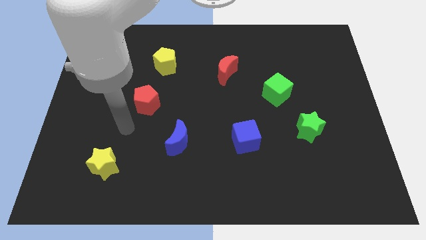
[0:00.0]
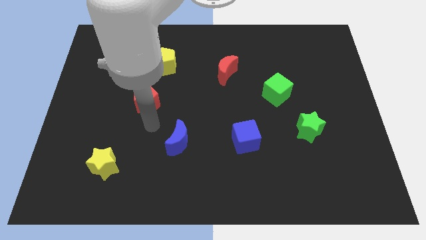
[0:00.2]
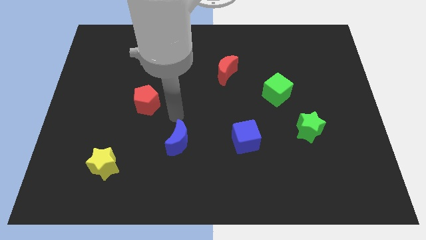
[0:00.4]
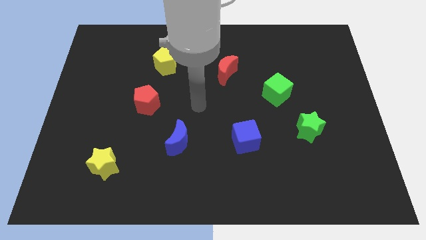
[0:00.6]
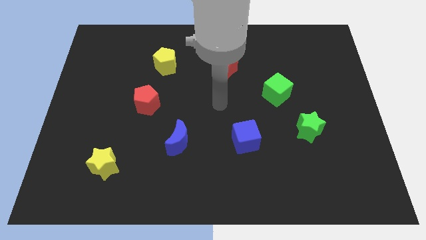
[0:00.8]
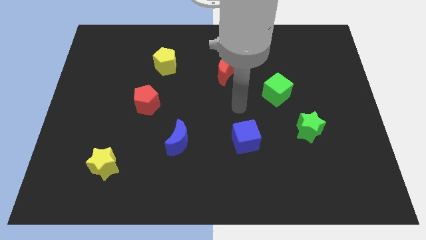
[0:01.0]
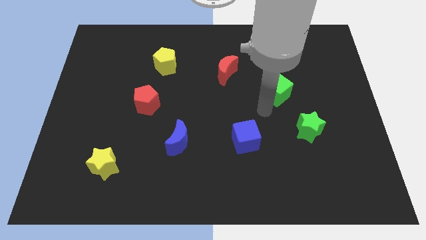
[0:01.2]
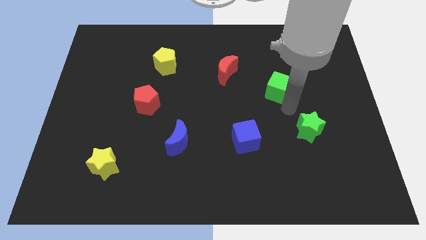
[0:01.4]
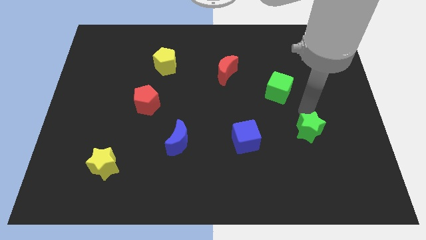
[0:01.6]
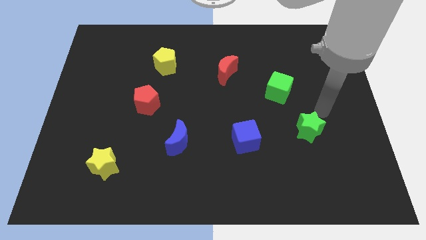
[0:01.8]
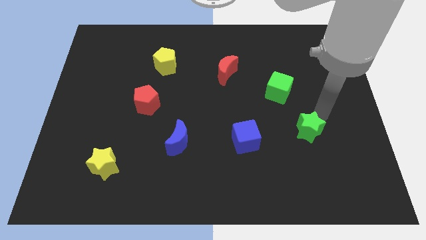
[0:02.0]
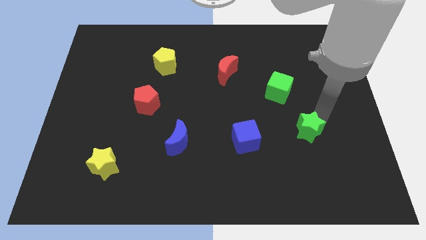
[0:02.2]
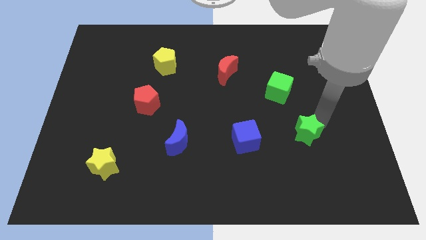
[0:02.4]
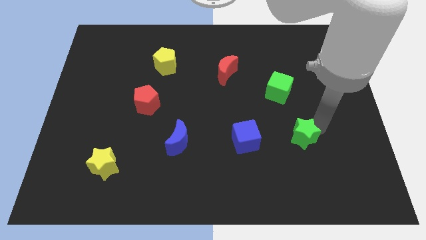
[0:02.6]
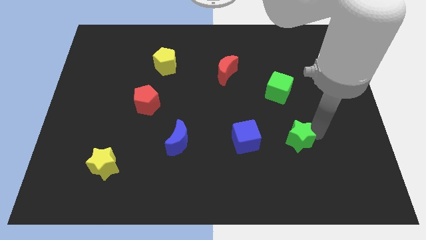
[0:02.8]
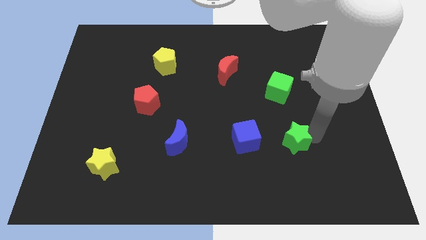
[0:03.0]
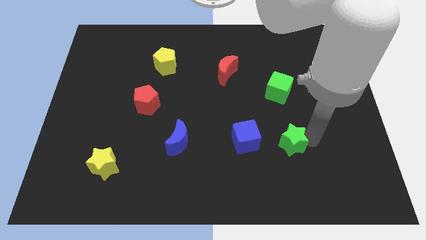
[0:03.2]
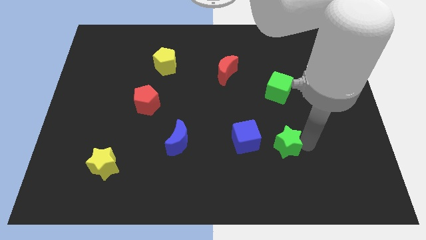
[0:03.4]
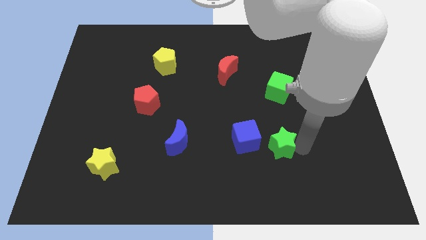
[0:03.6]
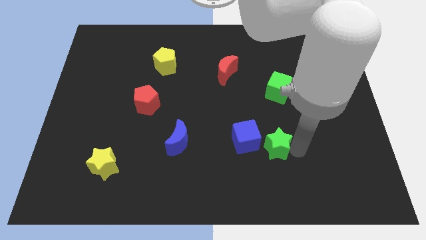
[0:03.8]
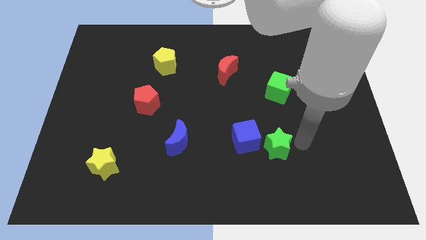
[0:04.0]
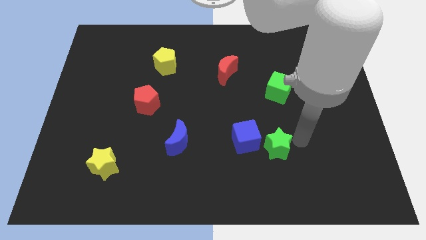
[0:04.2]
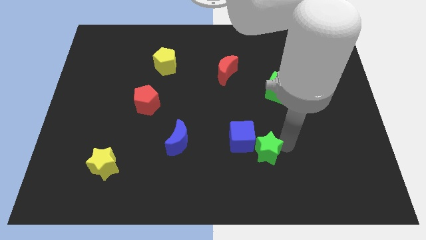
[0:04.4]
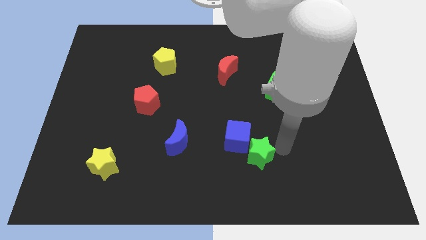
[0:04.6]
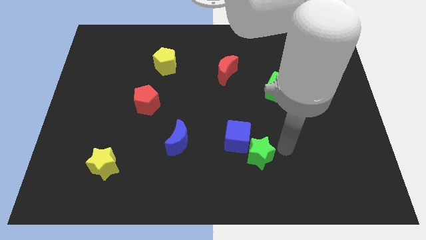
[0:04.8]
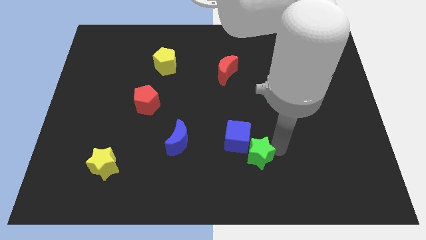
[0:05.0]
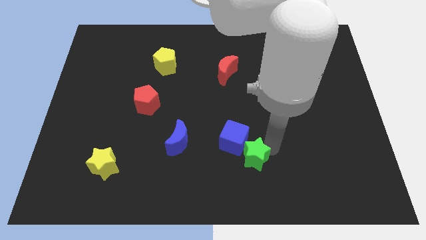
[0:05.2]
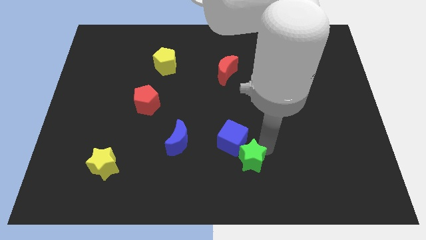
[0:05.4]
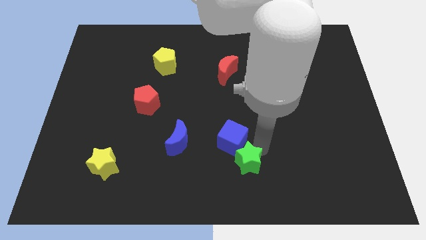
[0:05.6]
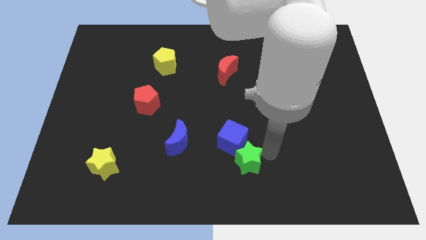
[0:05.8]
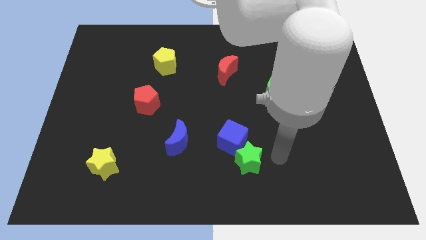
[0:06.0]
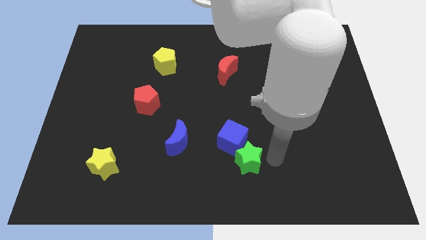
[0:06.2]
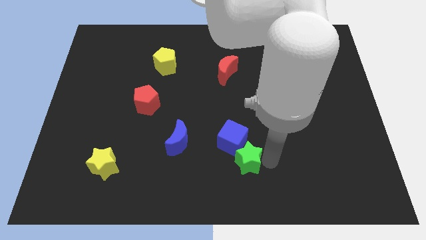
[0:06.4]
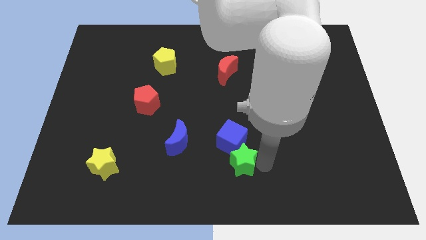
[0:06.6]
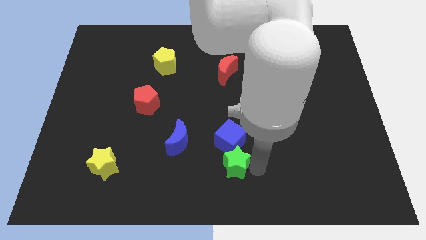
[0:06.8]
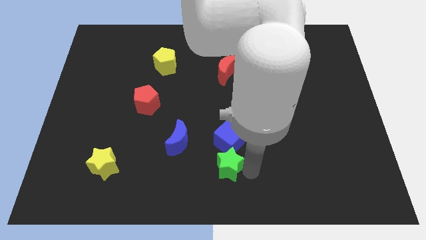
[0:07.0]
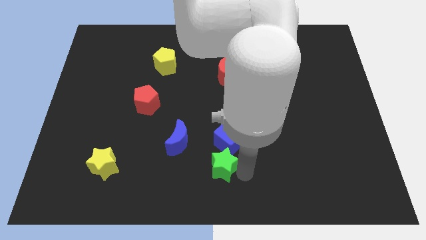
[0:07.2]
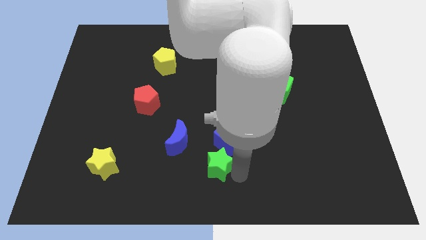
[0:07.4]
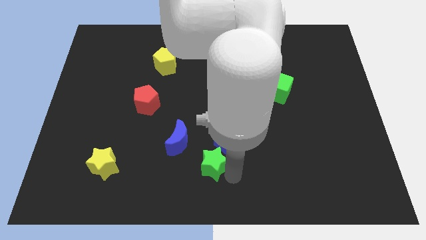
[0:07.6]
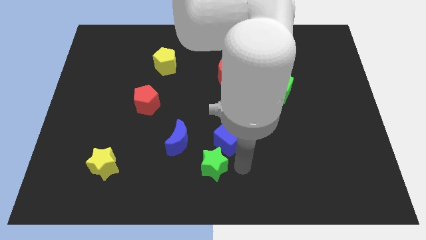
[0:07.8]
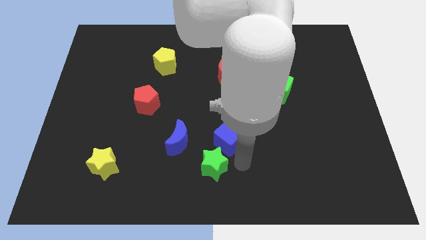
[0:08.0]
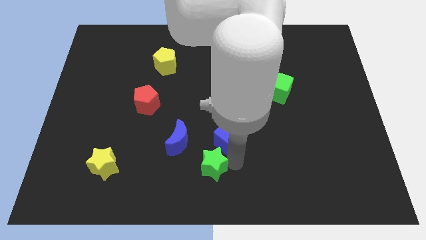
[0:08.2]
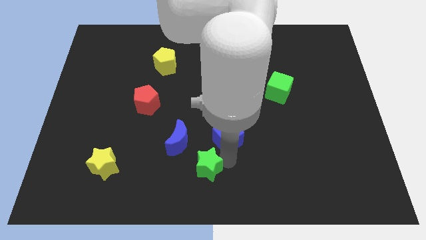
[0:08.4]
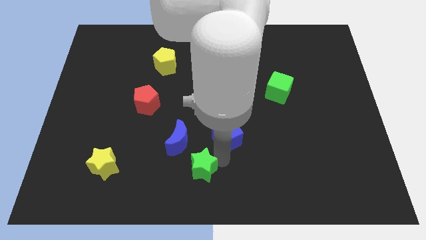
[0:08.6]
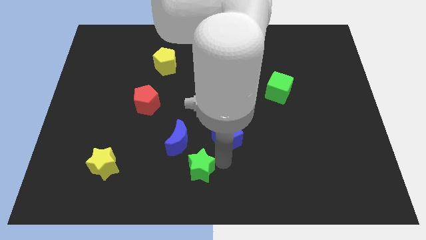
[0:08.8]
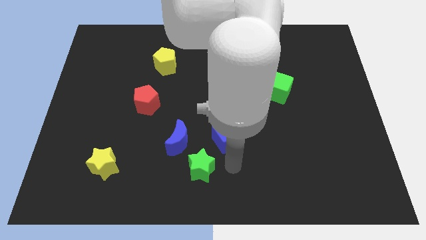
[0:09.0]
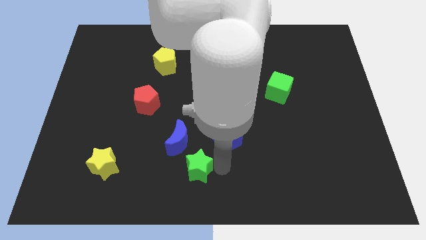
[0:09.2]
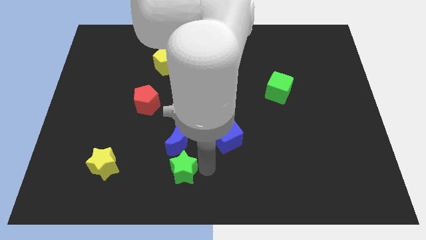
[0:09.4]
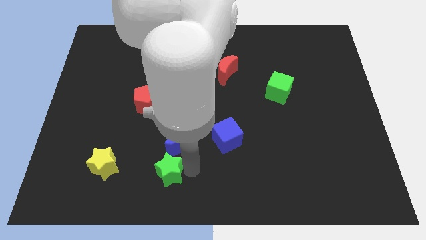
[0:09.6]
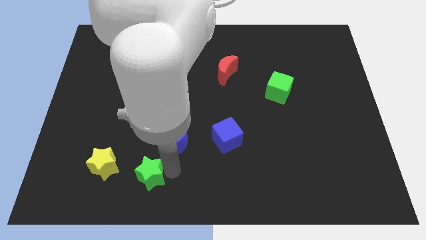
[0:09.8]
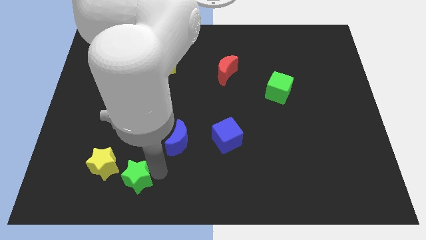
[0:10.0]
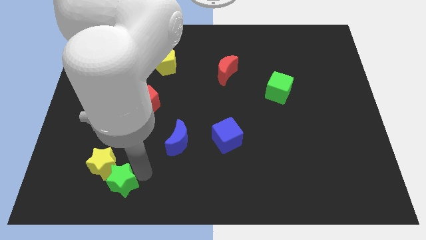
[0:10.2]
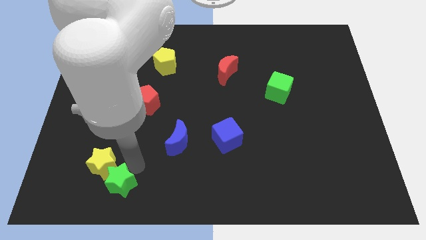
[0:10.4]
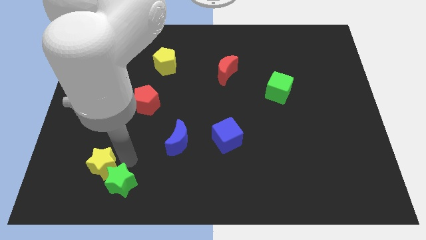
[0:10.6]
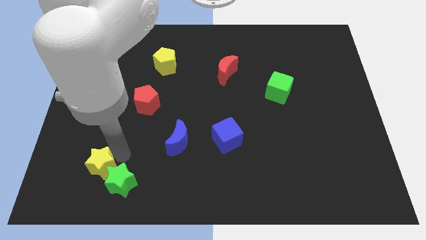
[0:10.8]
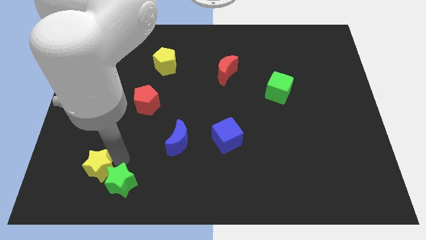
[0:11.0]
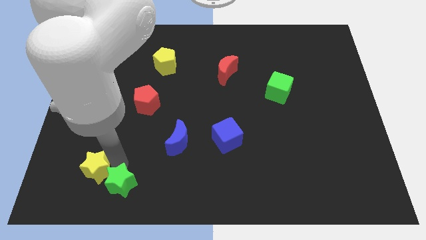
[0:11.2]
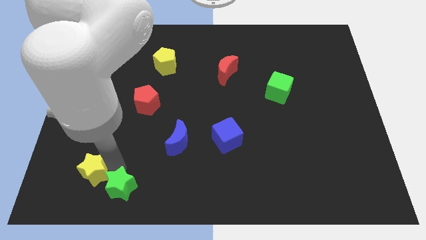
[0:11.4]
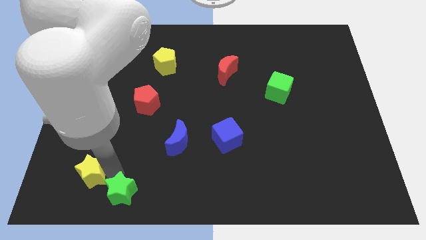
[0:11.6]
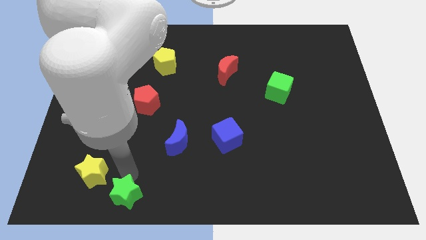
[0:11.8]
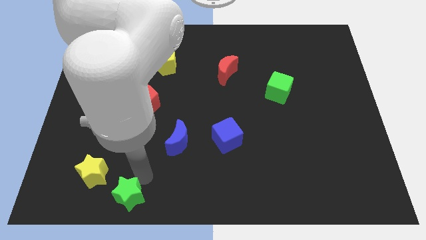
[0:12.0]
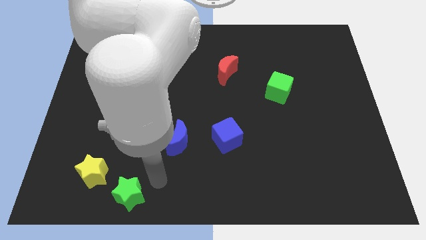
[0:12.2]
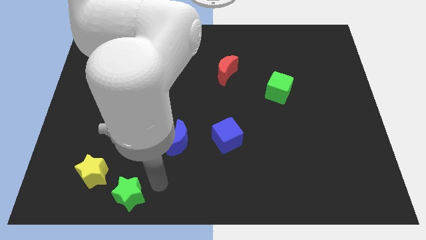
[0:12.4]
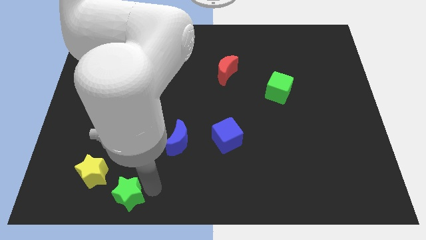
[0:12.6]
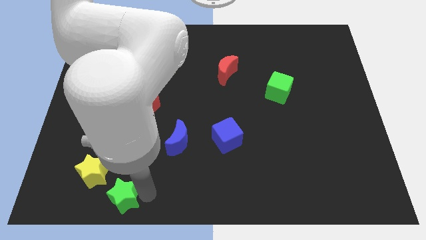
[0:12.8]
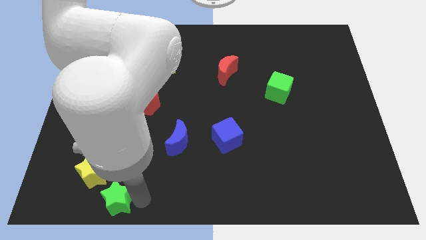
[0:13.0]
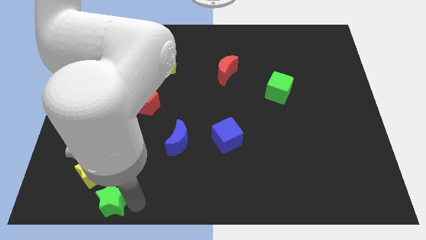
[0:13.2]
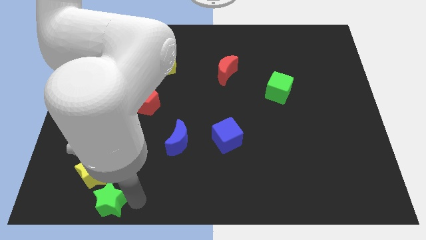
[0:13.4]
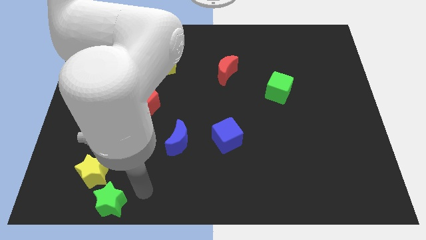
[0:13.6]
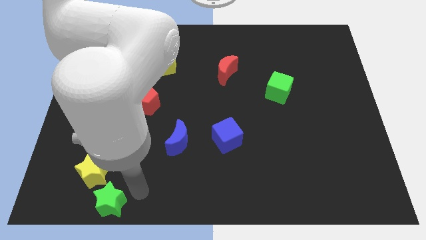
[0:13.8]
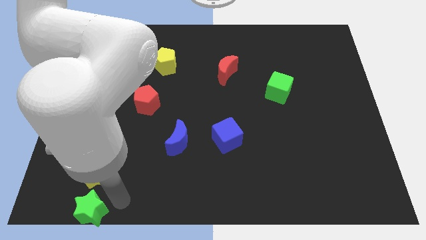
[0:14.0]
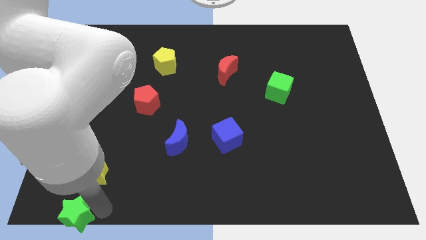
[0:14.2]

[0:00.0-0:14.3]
slide the green star to the bottom left corner
